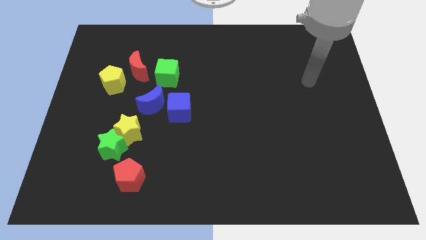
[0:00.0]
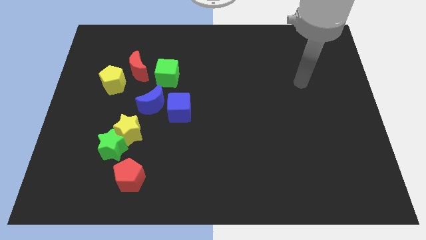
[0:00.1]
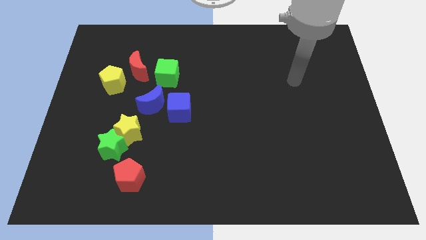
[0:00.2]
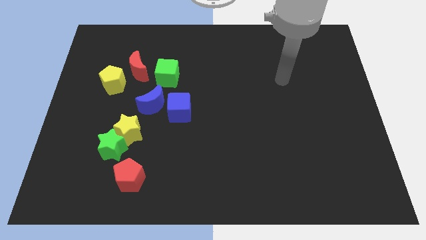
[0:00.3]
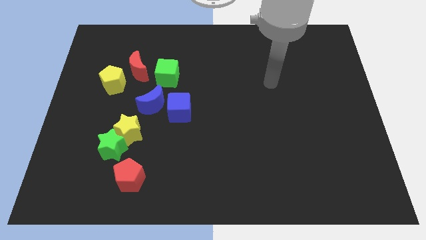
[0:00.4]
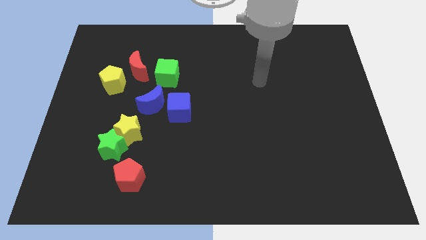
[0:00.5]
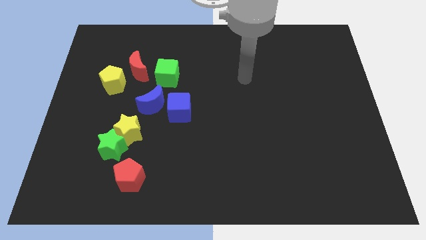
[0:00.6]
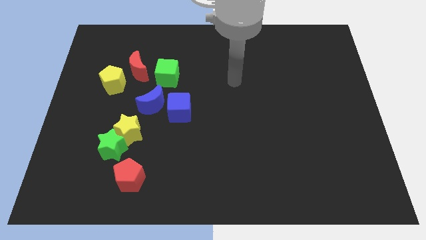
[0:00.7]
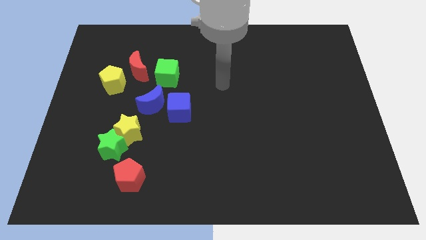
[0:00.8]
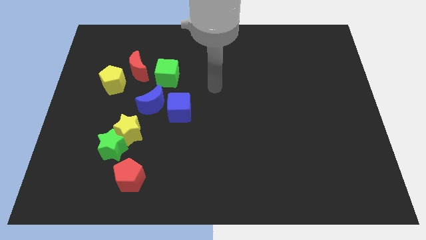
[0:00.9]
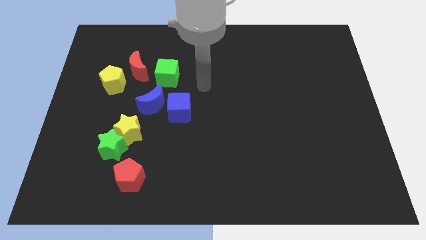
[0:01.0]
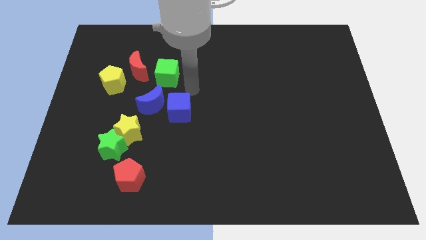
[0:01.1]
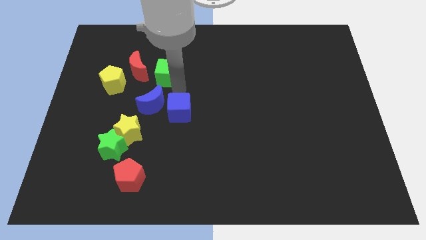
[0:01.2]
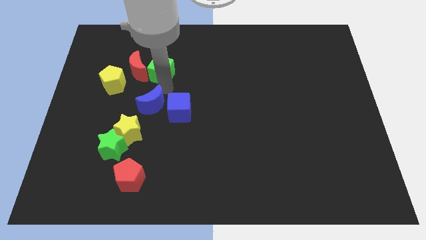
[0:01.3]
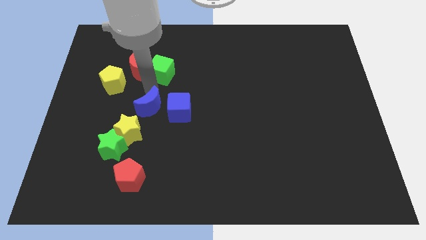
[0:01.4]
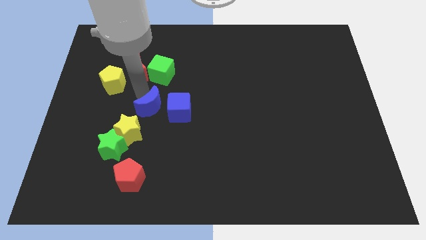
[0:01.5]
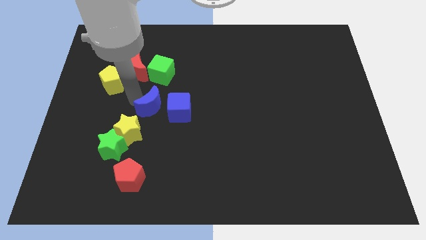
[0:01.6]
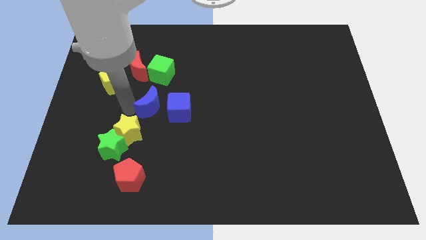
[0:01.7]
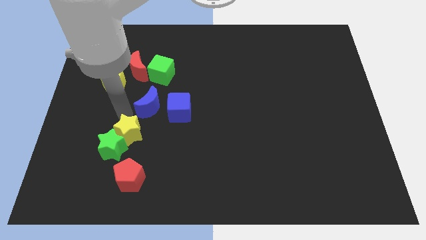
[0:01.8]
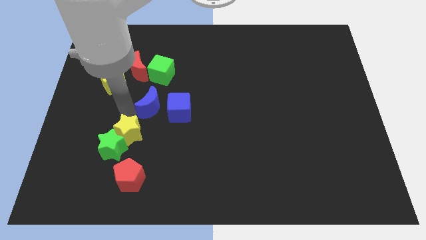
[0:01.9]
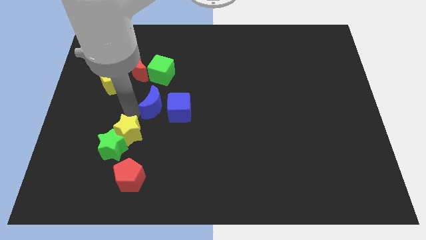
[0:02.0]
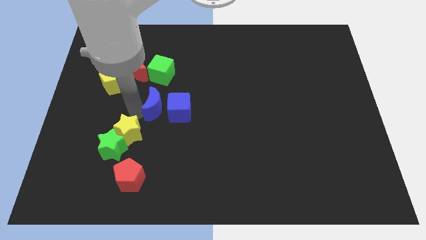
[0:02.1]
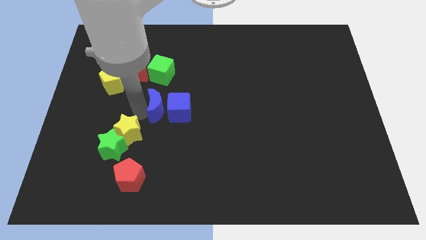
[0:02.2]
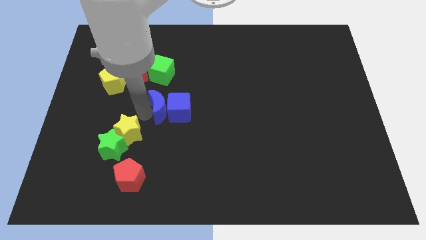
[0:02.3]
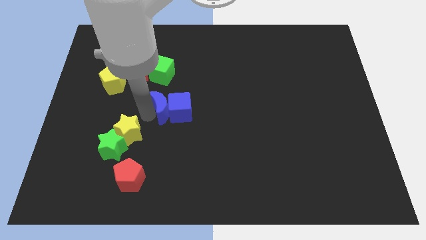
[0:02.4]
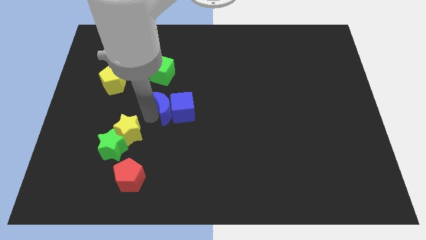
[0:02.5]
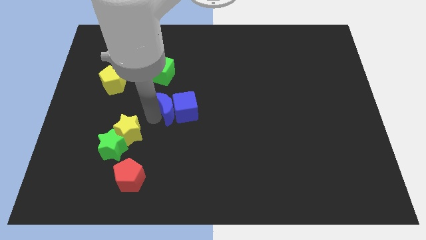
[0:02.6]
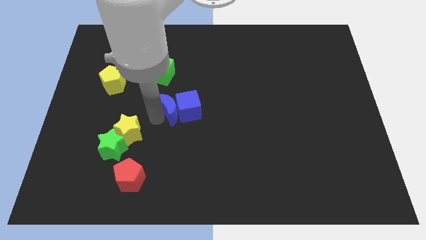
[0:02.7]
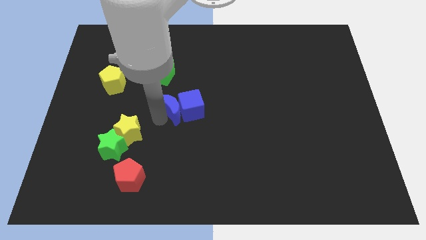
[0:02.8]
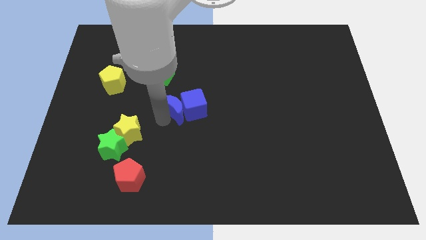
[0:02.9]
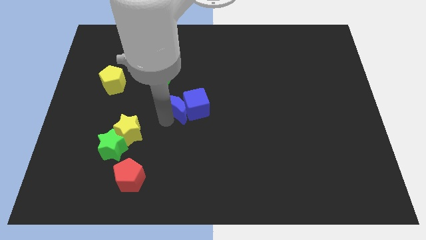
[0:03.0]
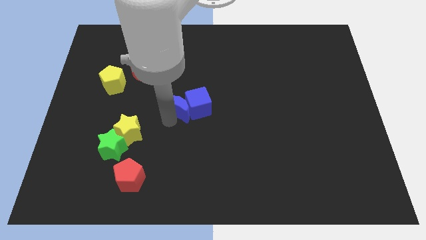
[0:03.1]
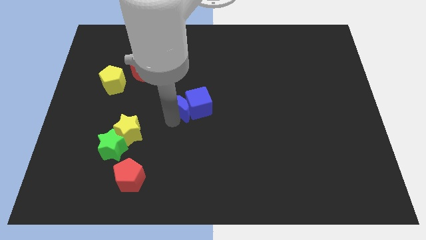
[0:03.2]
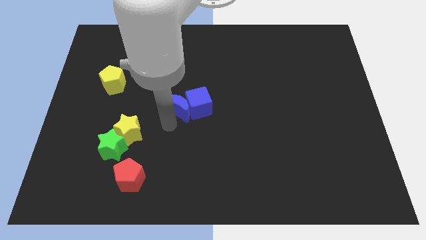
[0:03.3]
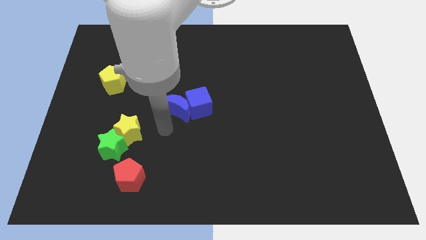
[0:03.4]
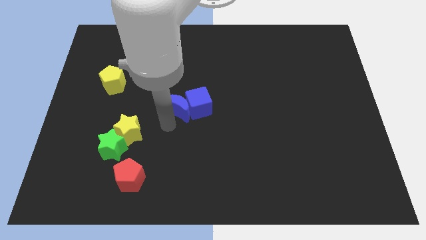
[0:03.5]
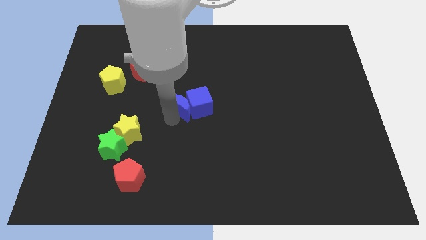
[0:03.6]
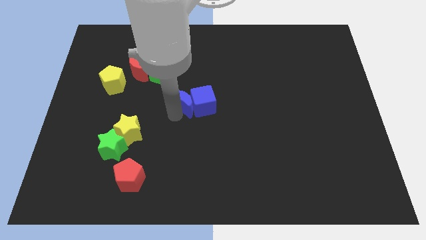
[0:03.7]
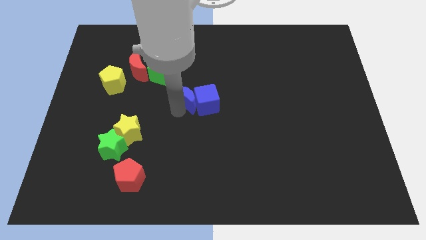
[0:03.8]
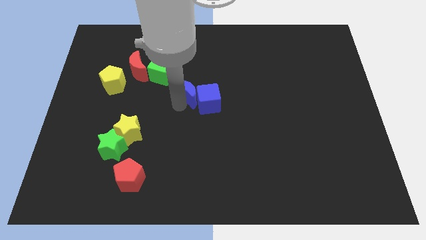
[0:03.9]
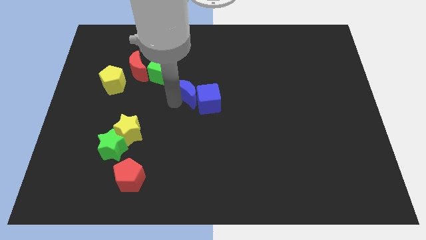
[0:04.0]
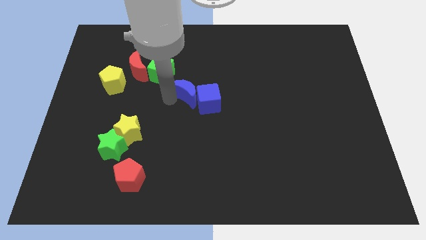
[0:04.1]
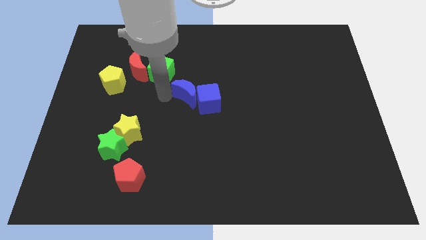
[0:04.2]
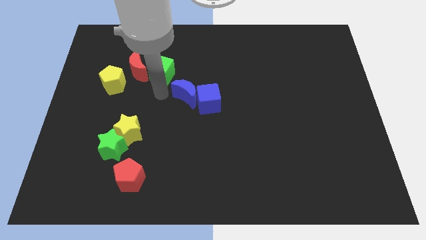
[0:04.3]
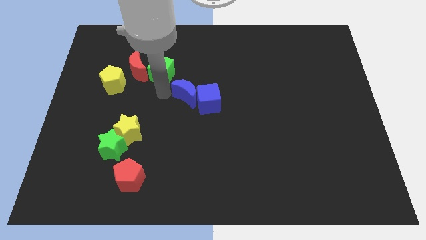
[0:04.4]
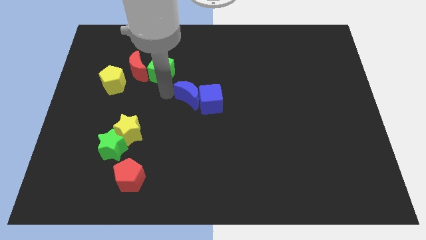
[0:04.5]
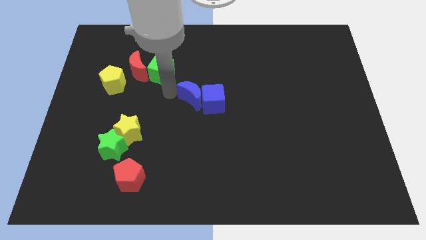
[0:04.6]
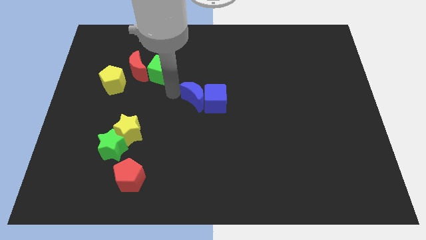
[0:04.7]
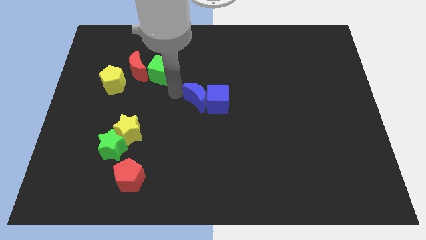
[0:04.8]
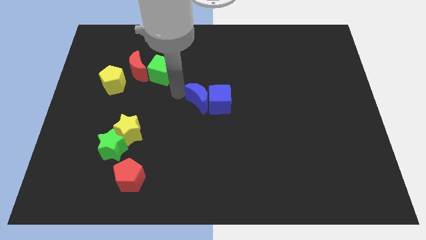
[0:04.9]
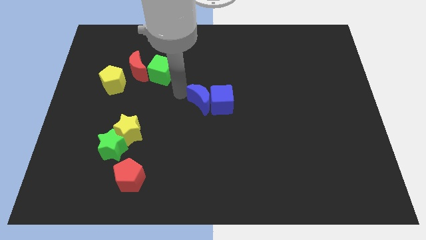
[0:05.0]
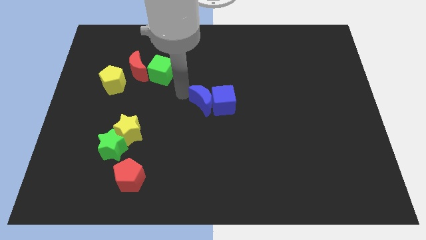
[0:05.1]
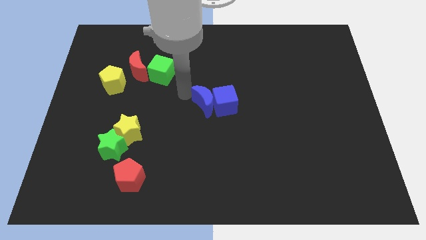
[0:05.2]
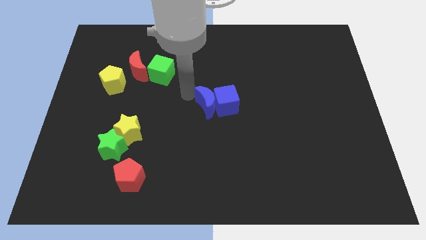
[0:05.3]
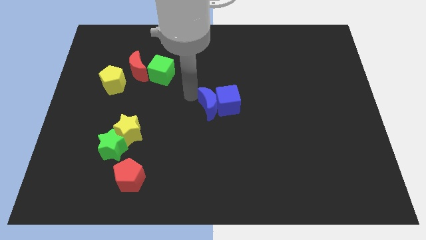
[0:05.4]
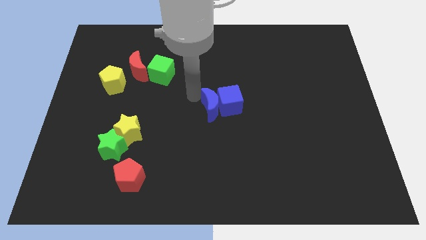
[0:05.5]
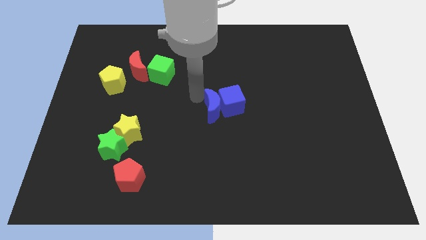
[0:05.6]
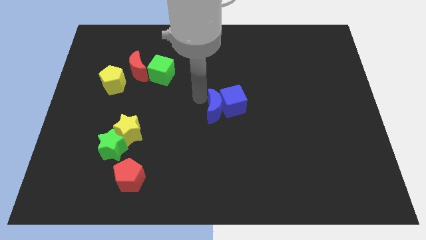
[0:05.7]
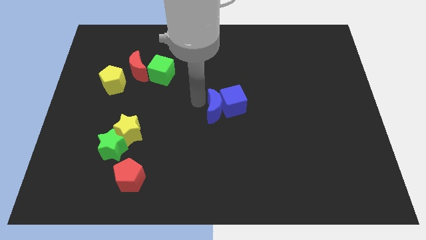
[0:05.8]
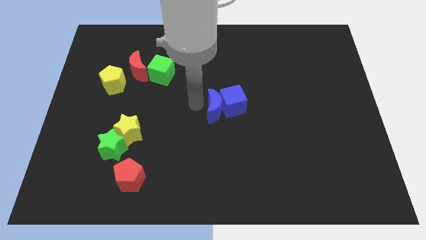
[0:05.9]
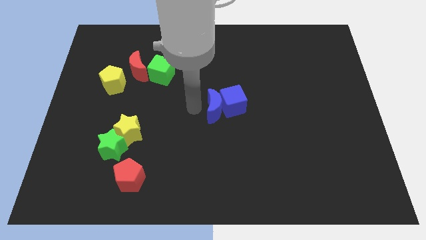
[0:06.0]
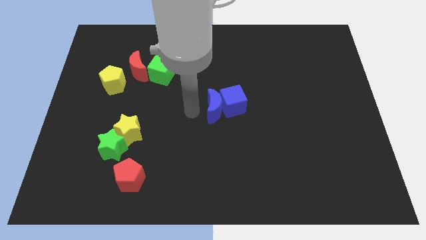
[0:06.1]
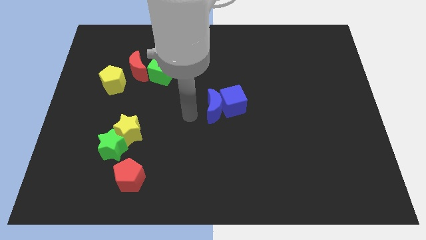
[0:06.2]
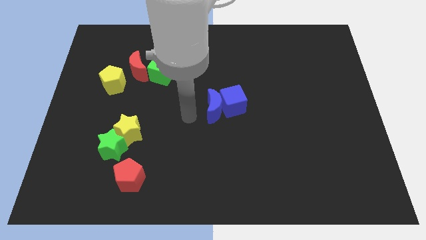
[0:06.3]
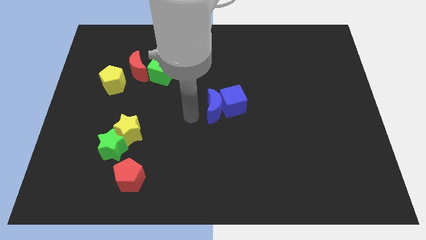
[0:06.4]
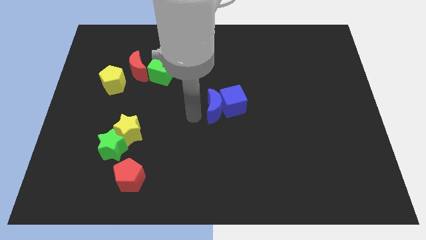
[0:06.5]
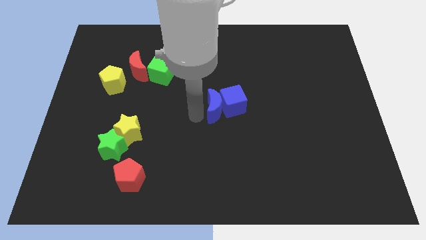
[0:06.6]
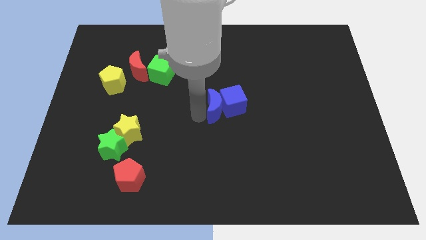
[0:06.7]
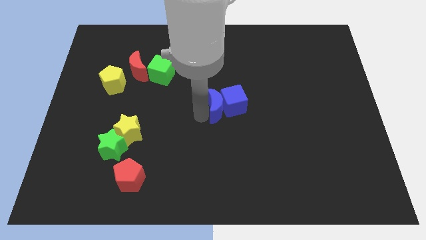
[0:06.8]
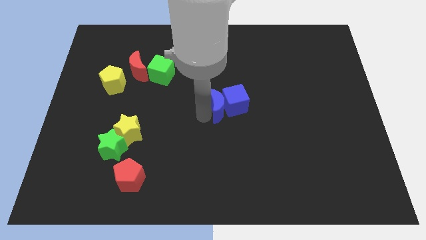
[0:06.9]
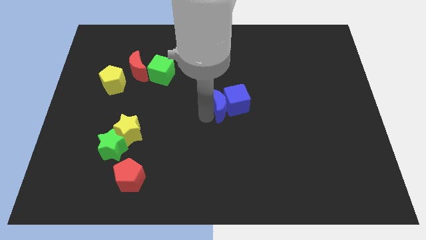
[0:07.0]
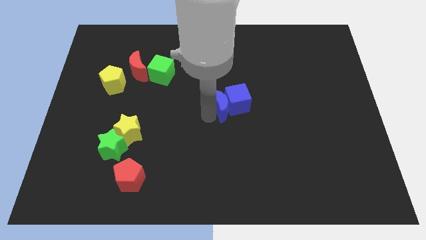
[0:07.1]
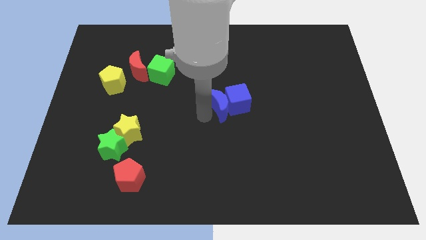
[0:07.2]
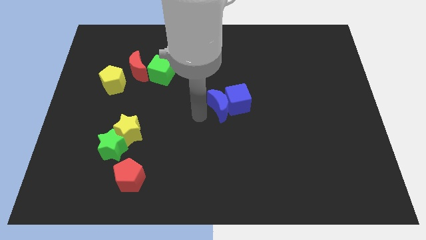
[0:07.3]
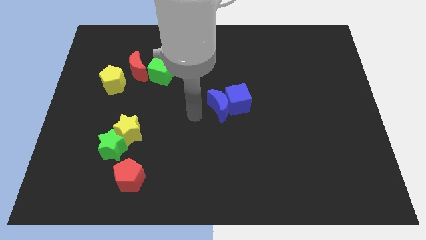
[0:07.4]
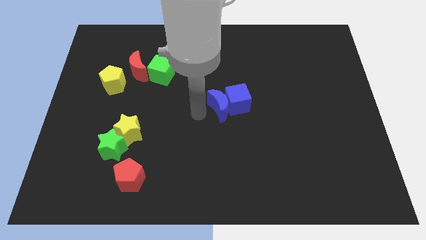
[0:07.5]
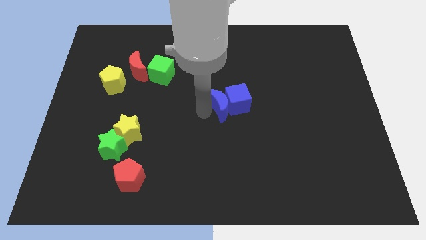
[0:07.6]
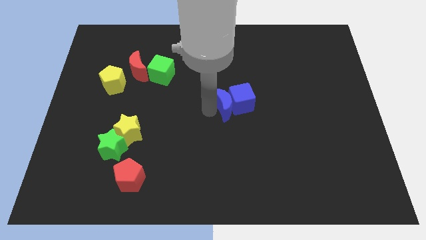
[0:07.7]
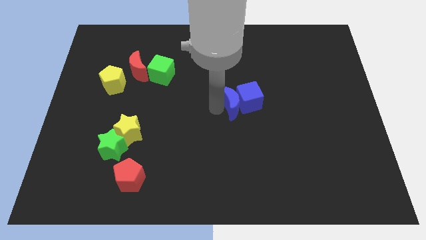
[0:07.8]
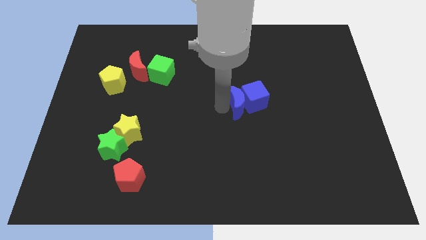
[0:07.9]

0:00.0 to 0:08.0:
push the blue moon right
